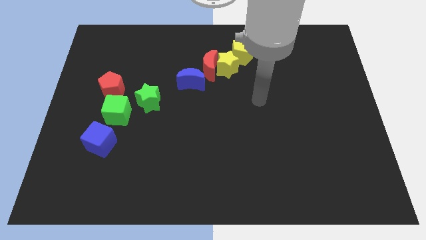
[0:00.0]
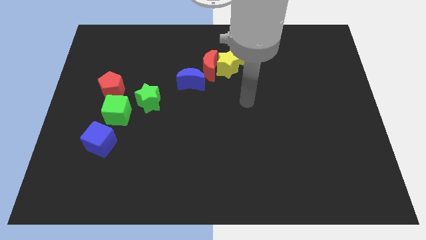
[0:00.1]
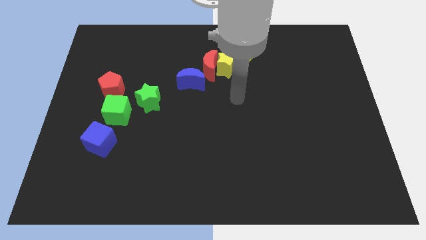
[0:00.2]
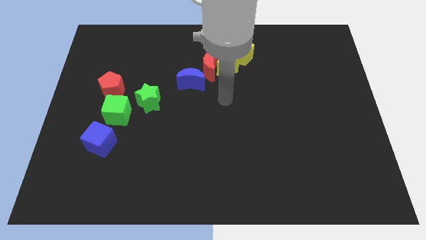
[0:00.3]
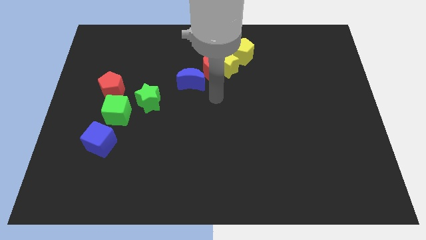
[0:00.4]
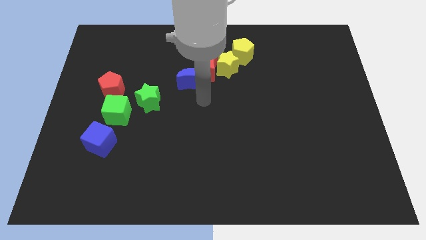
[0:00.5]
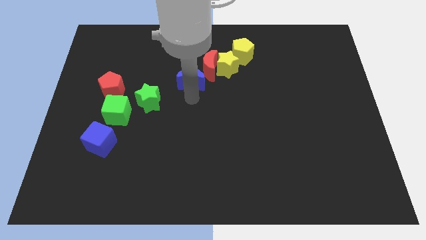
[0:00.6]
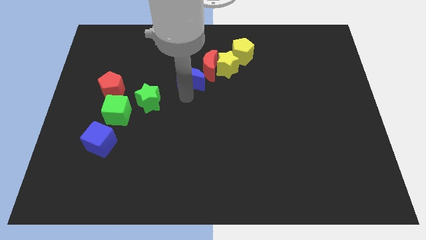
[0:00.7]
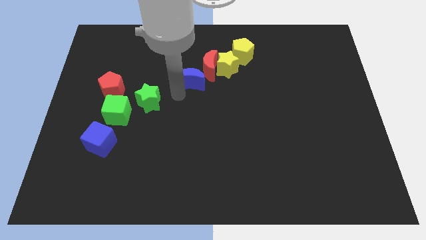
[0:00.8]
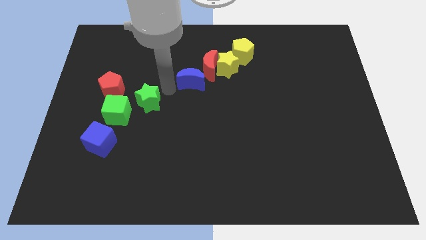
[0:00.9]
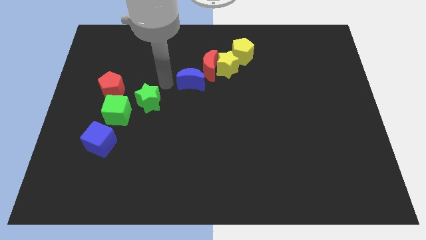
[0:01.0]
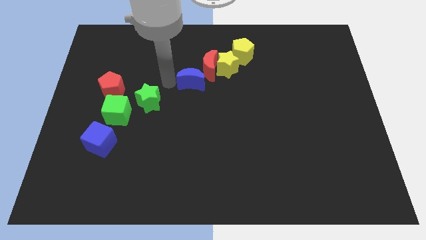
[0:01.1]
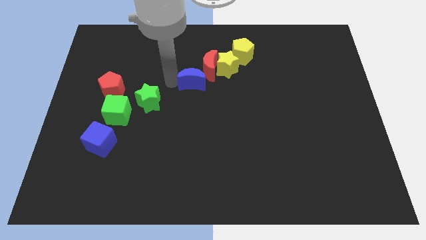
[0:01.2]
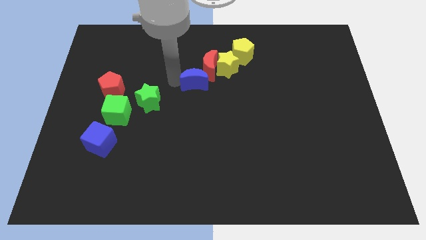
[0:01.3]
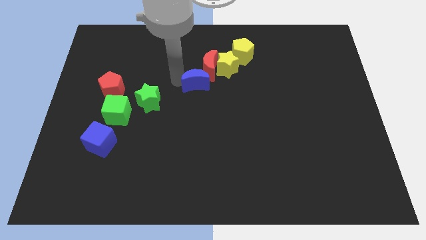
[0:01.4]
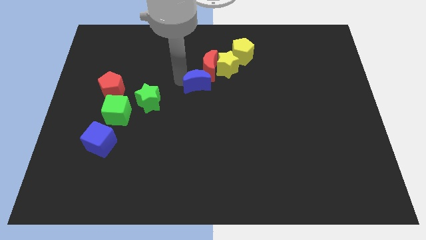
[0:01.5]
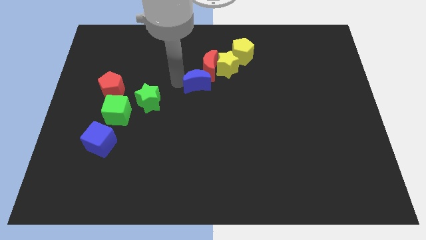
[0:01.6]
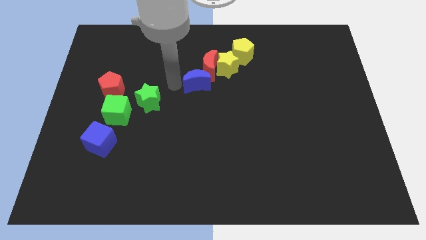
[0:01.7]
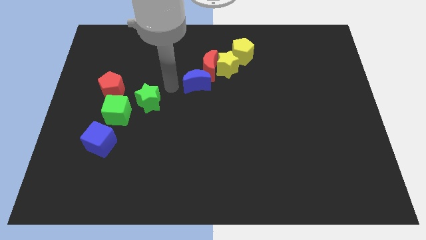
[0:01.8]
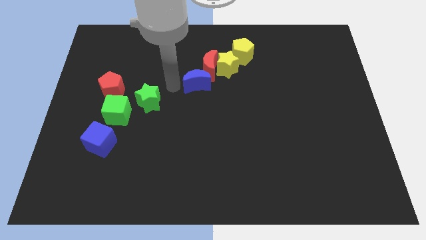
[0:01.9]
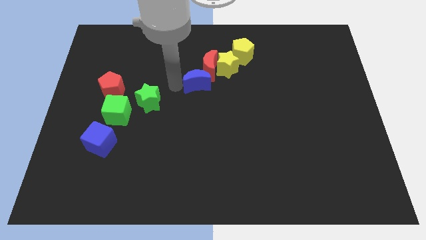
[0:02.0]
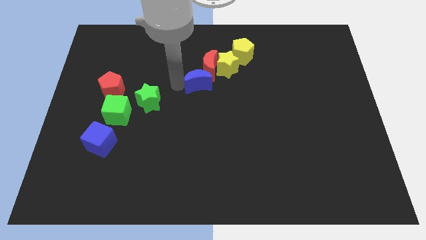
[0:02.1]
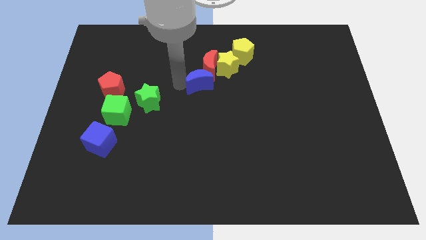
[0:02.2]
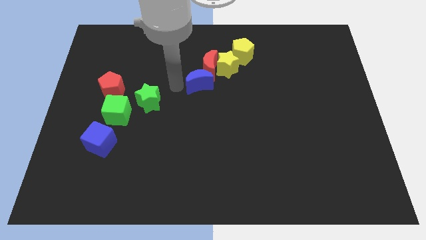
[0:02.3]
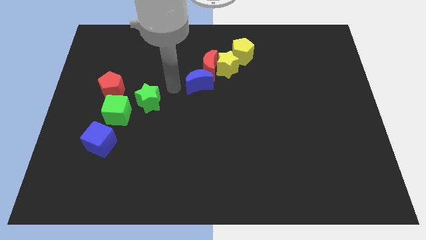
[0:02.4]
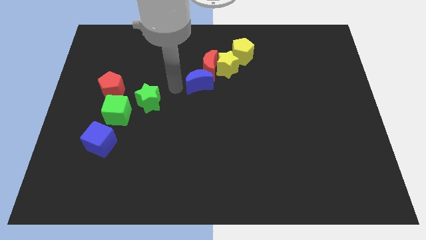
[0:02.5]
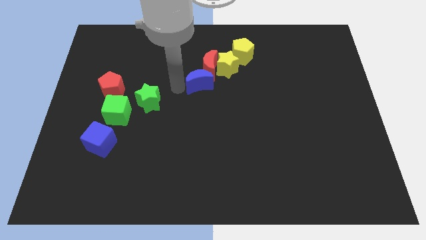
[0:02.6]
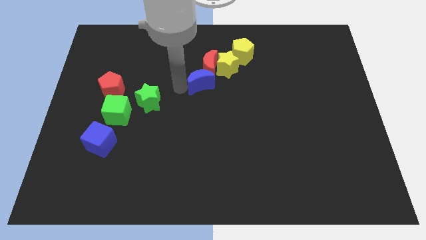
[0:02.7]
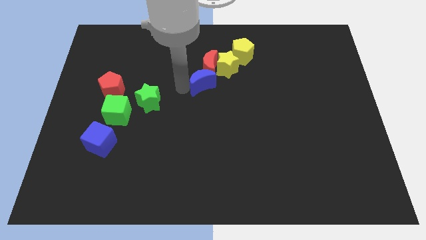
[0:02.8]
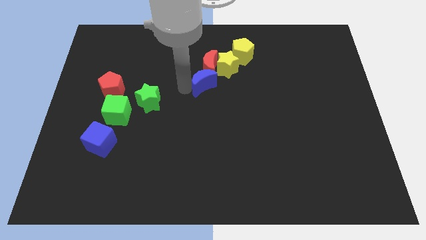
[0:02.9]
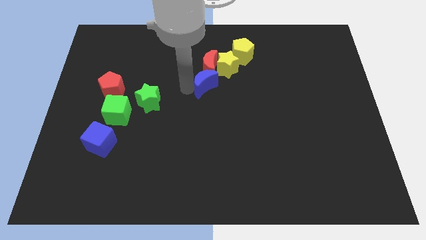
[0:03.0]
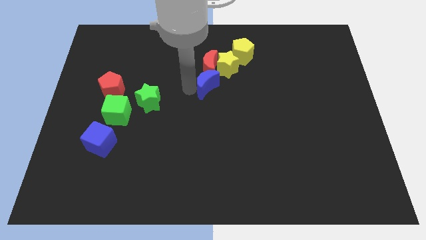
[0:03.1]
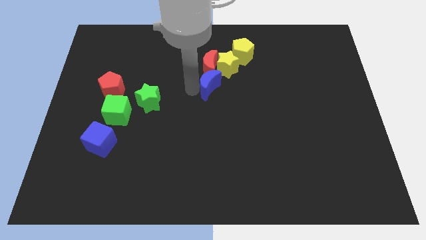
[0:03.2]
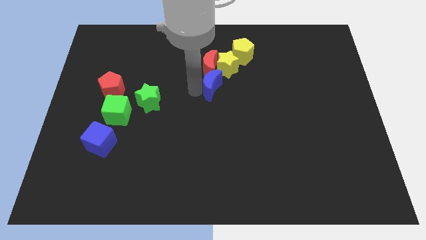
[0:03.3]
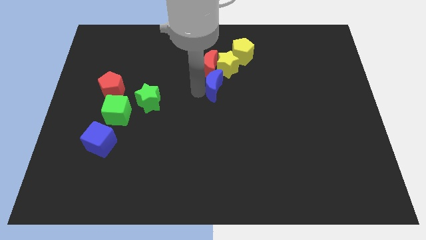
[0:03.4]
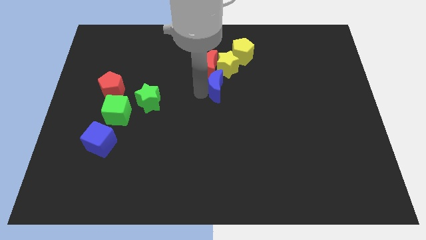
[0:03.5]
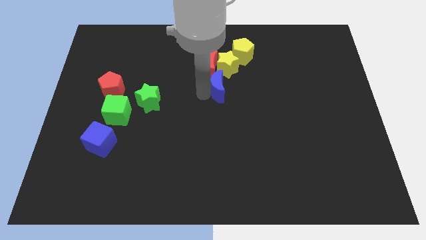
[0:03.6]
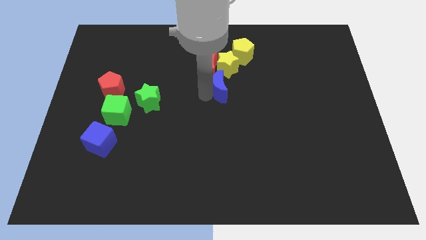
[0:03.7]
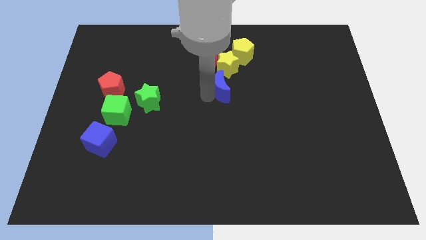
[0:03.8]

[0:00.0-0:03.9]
push the blue moon slightly to the right

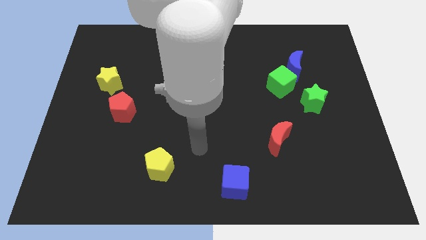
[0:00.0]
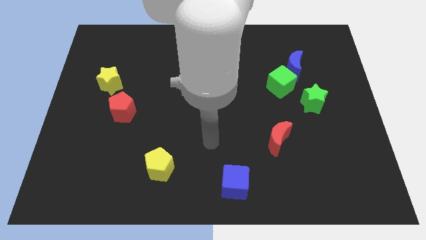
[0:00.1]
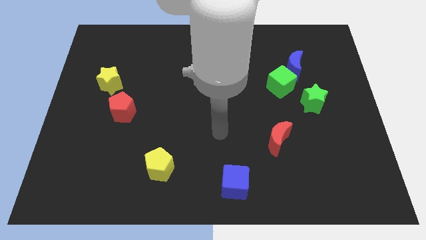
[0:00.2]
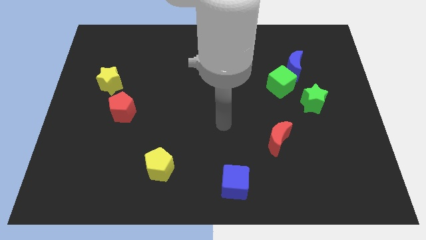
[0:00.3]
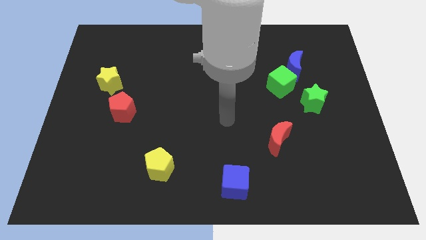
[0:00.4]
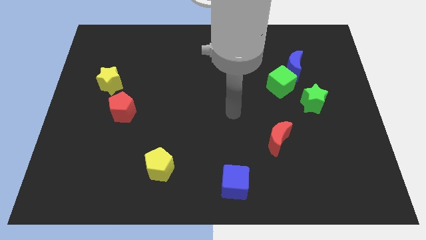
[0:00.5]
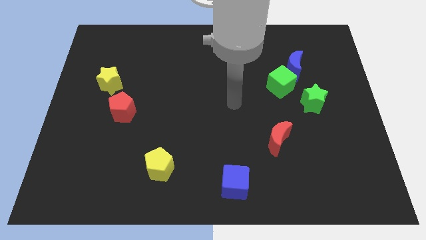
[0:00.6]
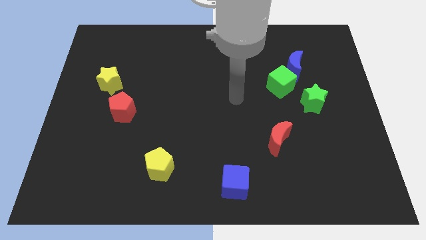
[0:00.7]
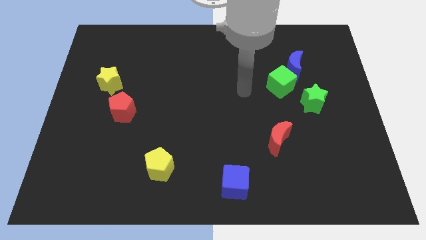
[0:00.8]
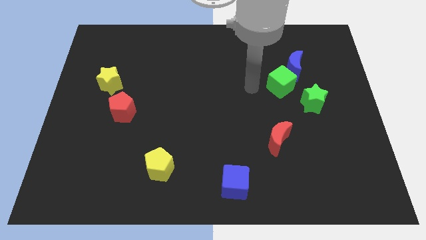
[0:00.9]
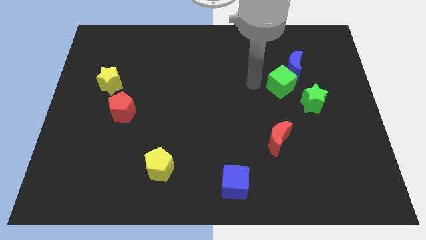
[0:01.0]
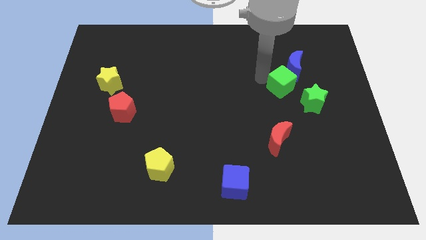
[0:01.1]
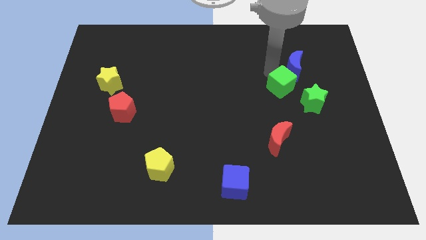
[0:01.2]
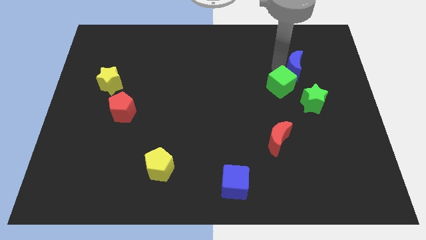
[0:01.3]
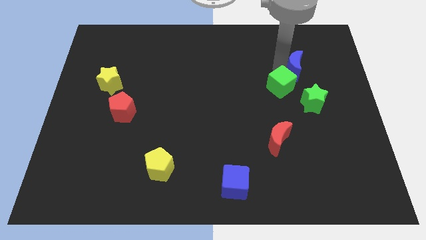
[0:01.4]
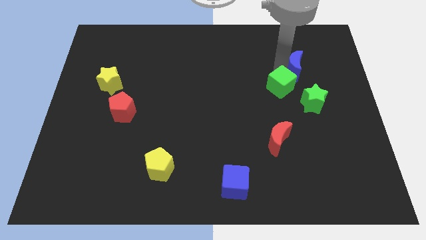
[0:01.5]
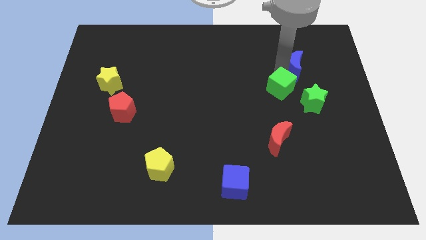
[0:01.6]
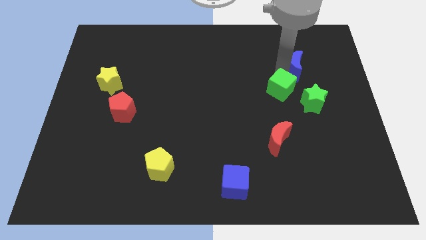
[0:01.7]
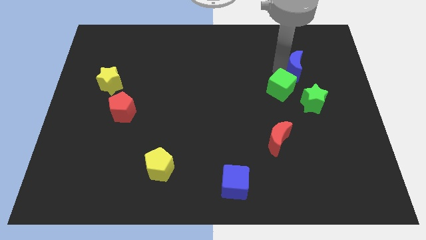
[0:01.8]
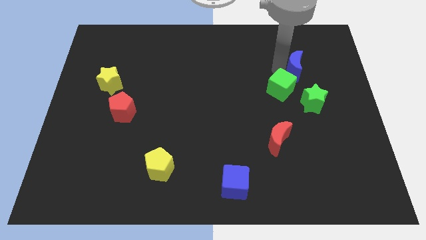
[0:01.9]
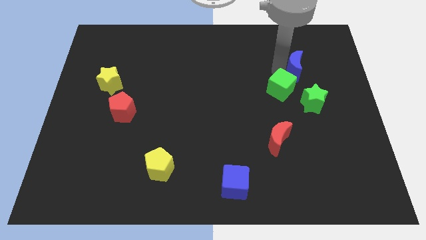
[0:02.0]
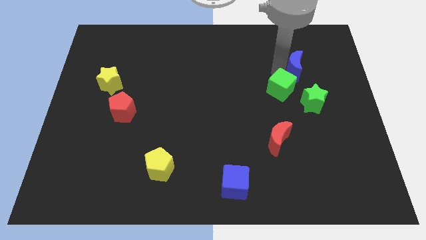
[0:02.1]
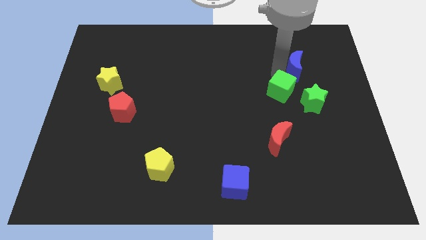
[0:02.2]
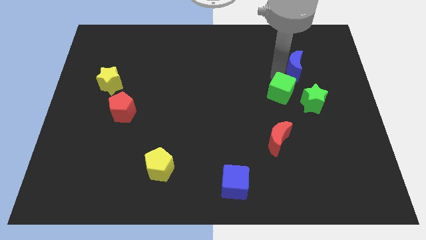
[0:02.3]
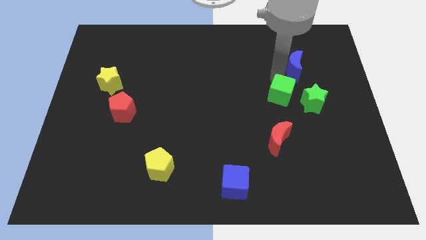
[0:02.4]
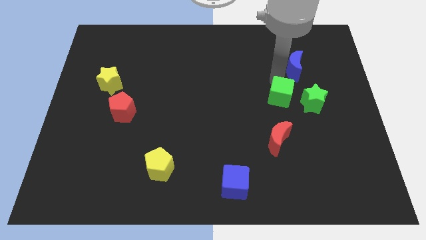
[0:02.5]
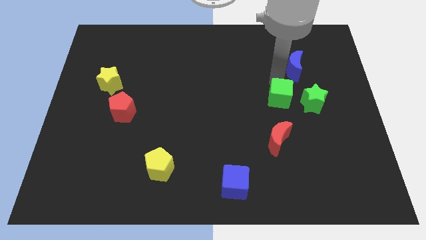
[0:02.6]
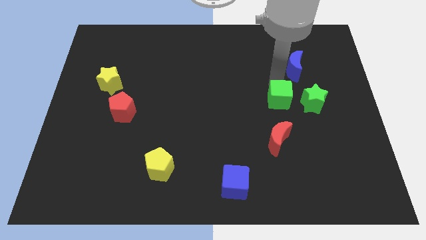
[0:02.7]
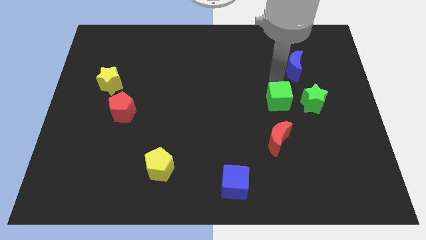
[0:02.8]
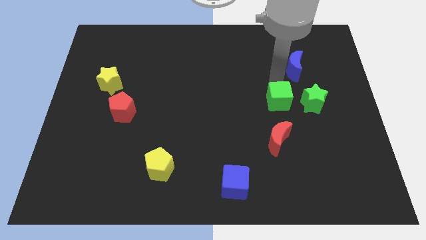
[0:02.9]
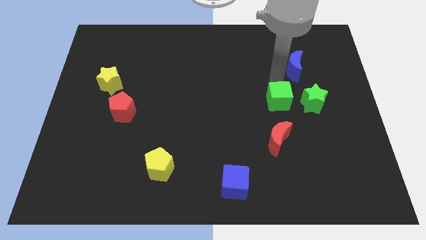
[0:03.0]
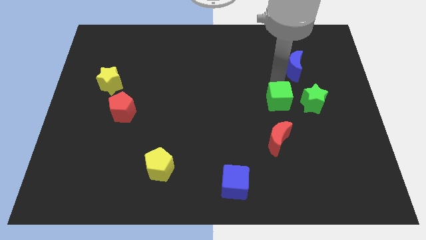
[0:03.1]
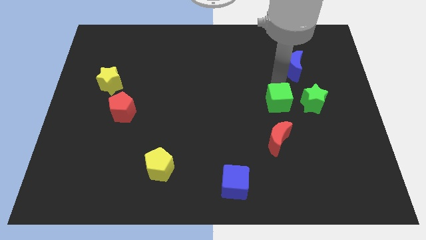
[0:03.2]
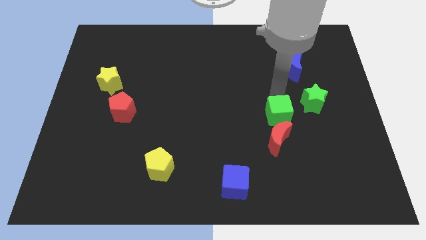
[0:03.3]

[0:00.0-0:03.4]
move the green cube downwards somewhat
